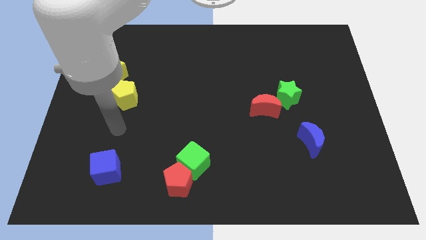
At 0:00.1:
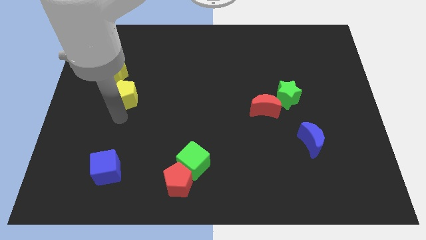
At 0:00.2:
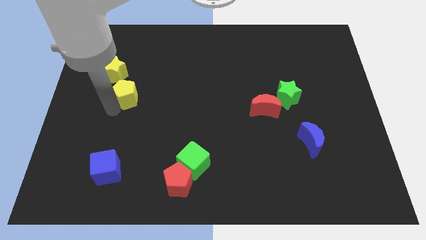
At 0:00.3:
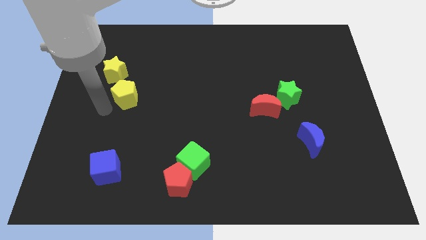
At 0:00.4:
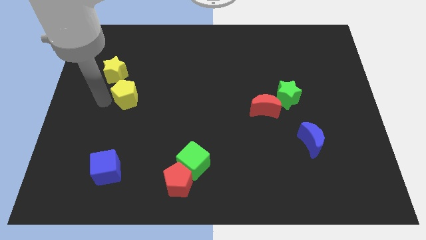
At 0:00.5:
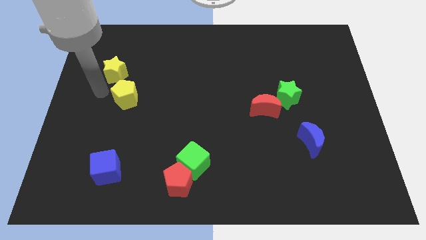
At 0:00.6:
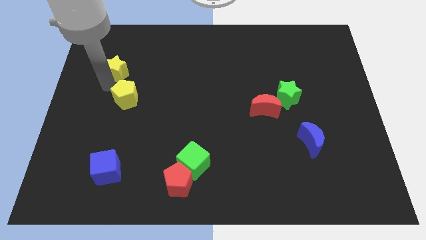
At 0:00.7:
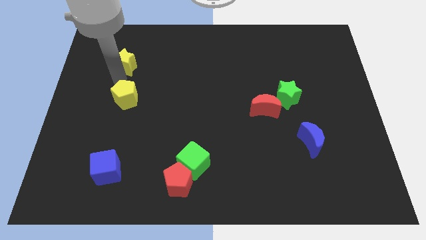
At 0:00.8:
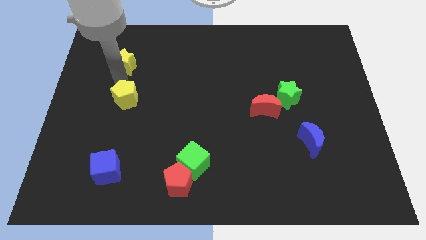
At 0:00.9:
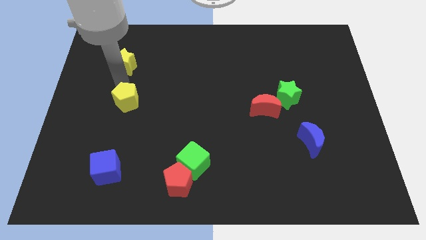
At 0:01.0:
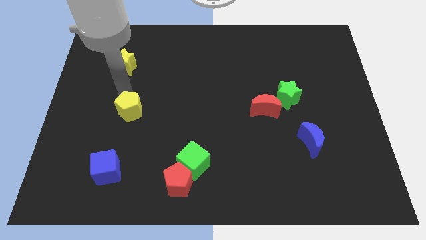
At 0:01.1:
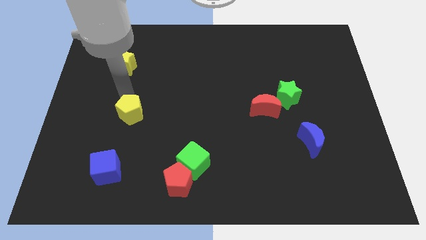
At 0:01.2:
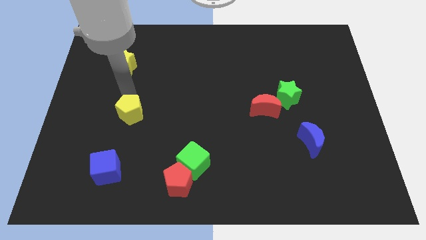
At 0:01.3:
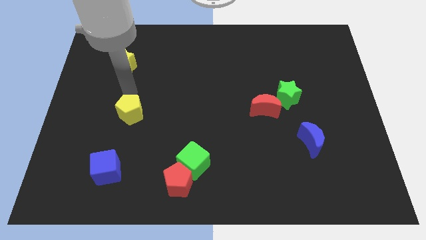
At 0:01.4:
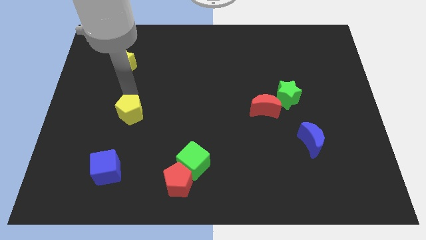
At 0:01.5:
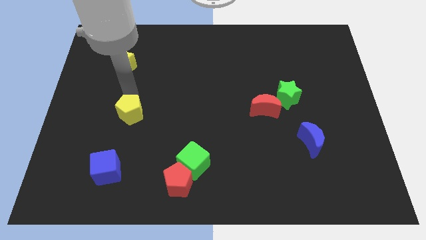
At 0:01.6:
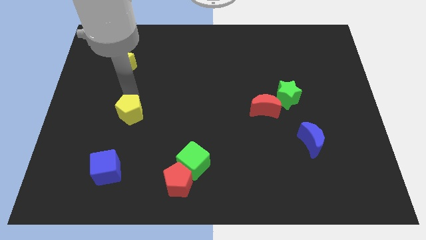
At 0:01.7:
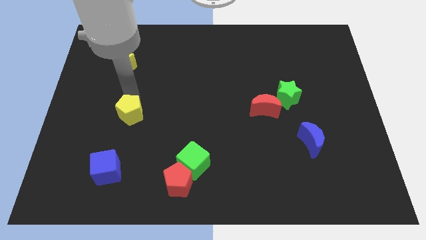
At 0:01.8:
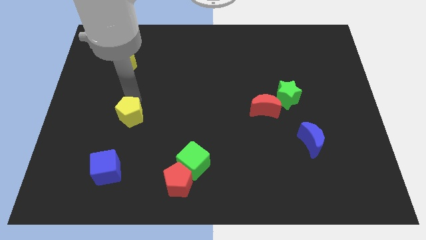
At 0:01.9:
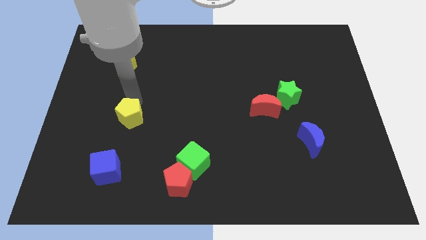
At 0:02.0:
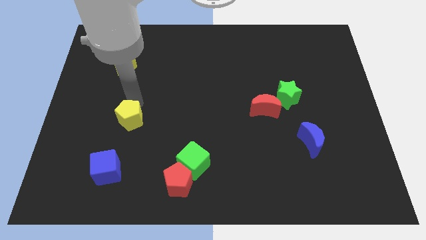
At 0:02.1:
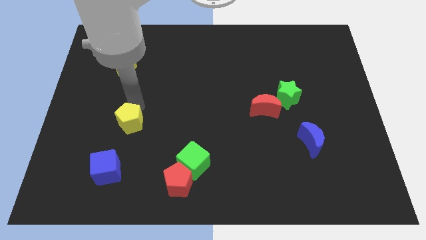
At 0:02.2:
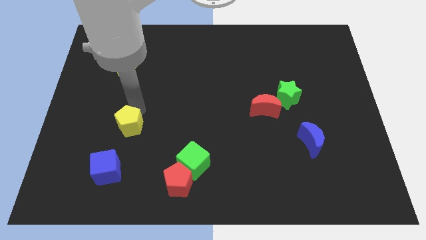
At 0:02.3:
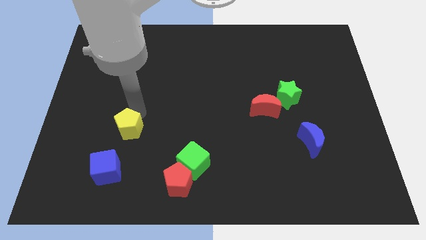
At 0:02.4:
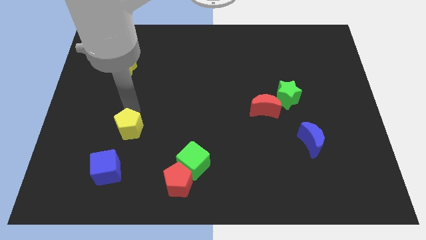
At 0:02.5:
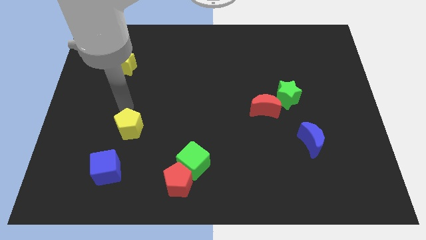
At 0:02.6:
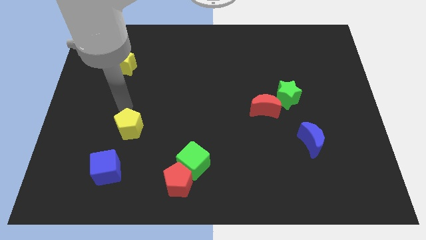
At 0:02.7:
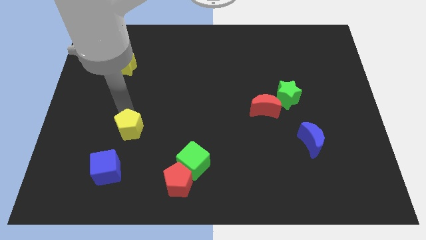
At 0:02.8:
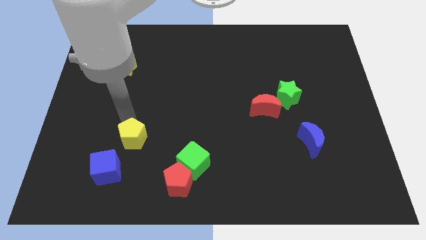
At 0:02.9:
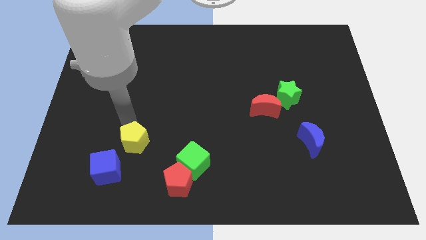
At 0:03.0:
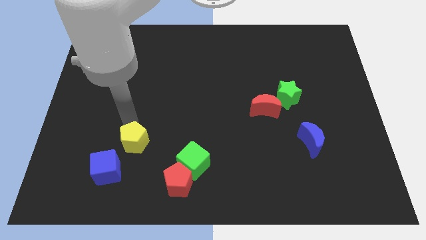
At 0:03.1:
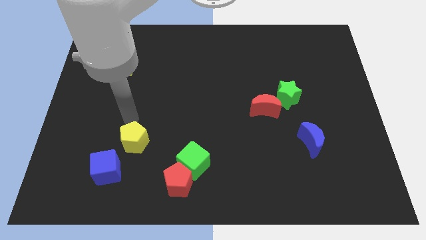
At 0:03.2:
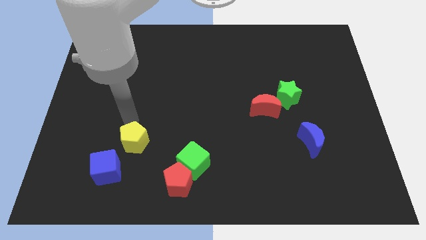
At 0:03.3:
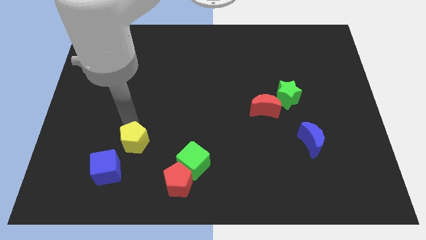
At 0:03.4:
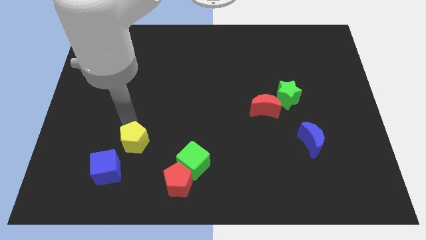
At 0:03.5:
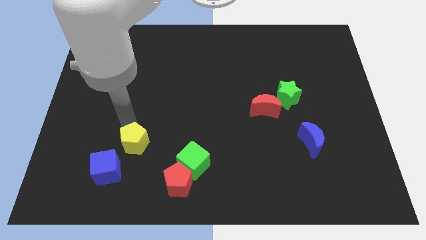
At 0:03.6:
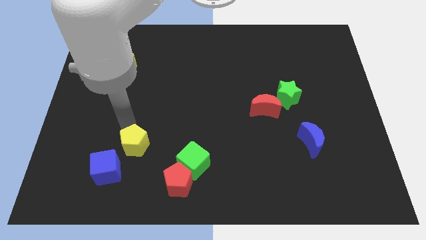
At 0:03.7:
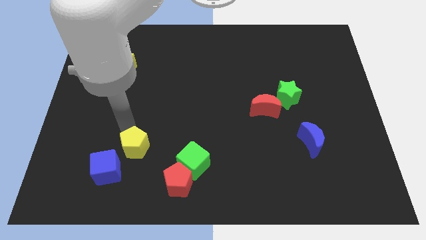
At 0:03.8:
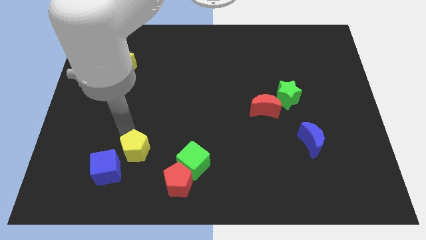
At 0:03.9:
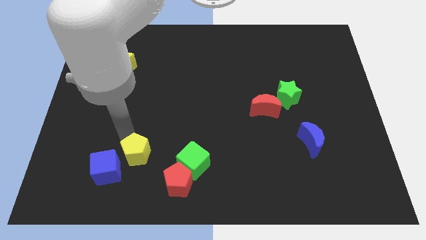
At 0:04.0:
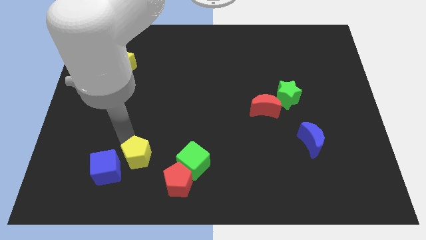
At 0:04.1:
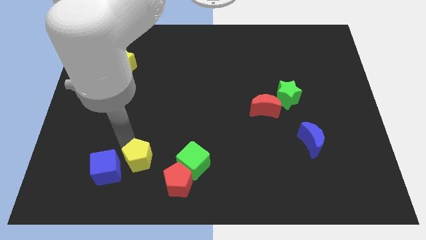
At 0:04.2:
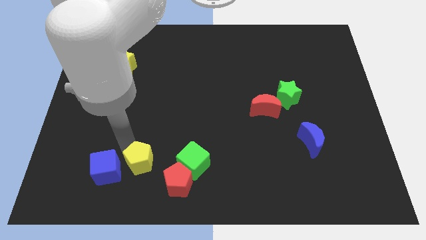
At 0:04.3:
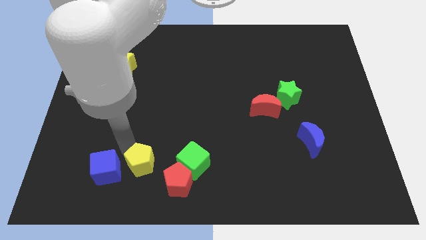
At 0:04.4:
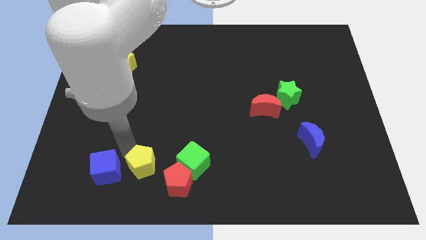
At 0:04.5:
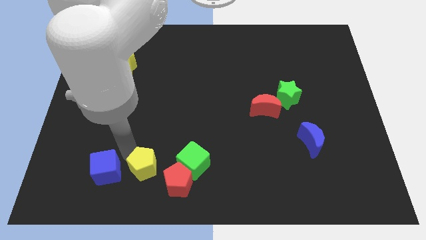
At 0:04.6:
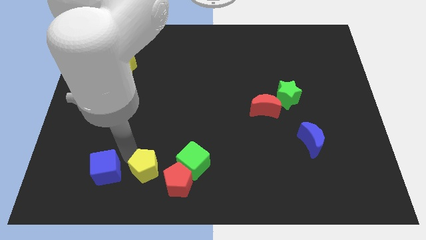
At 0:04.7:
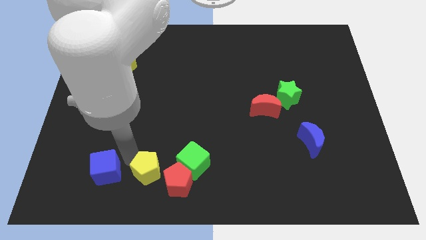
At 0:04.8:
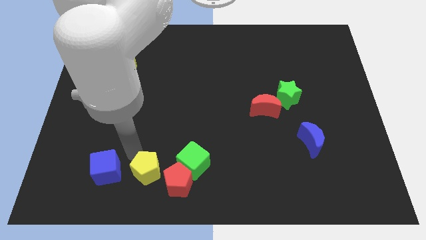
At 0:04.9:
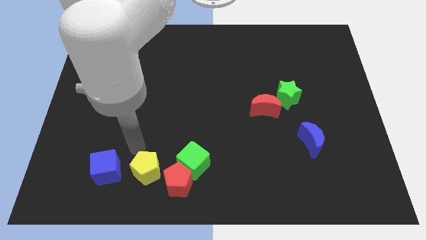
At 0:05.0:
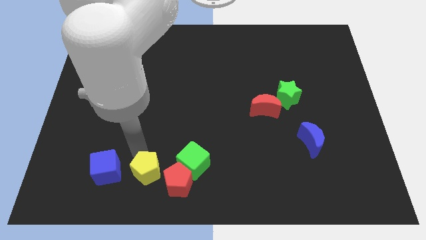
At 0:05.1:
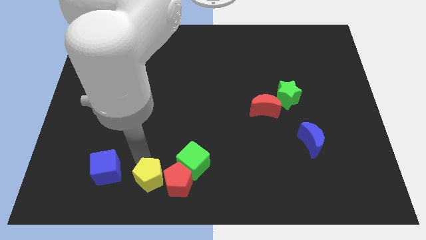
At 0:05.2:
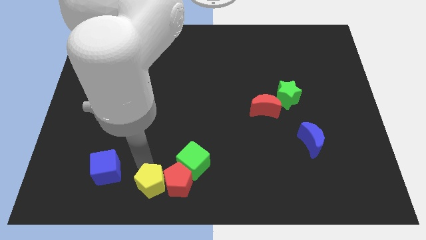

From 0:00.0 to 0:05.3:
move the yellow pentagon to the bottom

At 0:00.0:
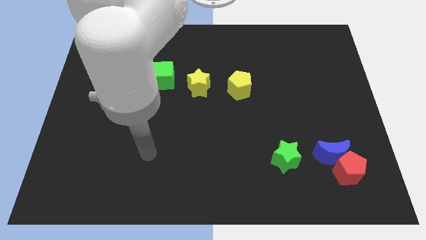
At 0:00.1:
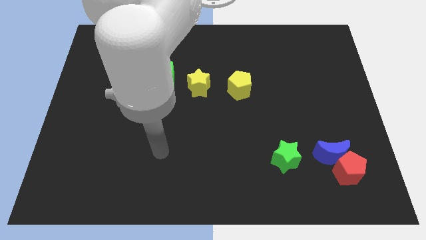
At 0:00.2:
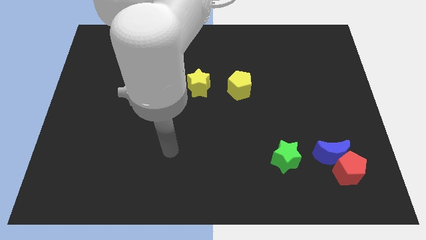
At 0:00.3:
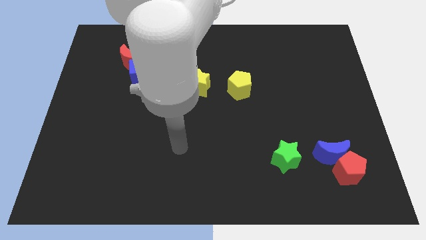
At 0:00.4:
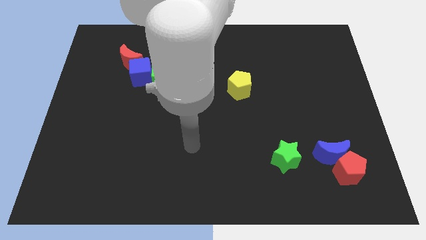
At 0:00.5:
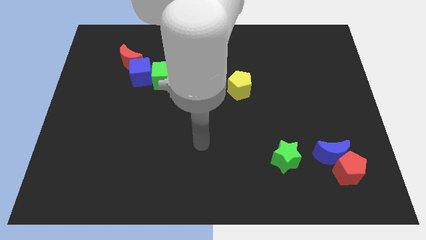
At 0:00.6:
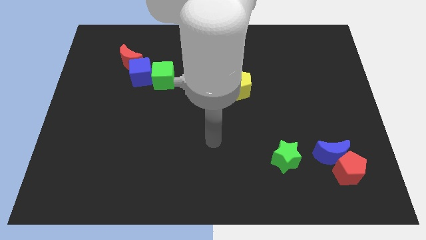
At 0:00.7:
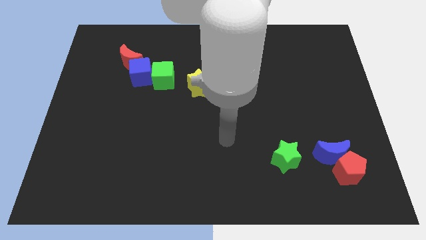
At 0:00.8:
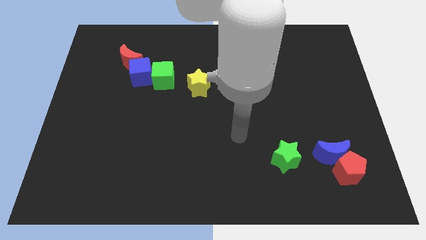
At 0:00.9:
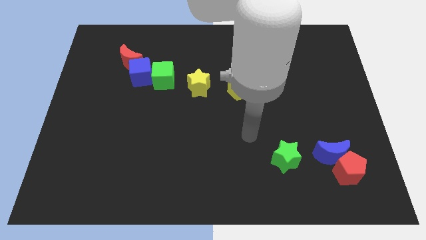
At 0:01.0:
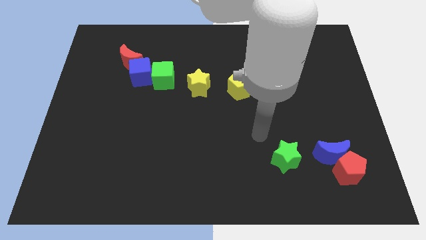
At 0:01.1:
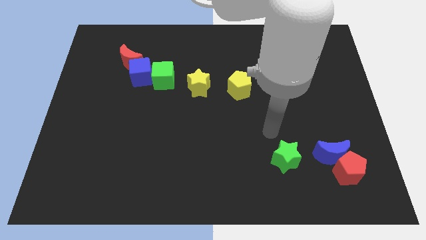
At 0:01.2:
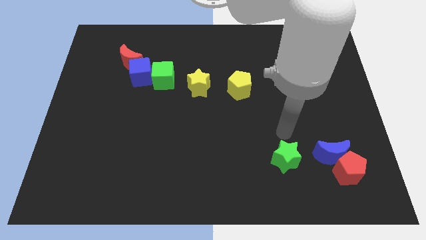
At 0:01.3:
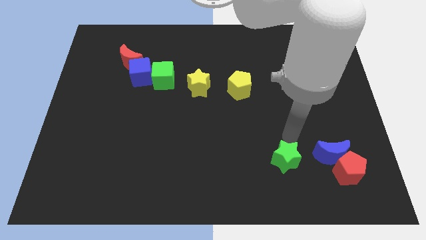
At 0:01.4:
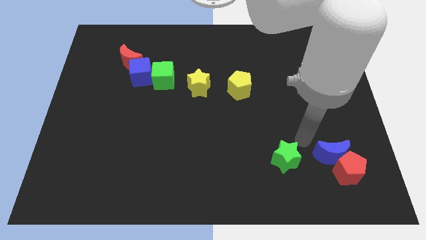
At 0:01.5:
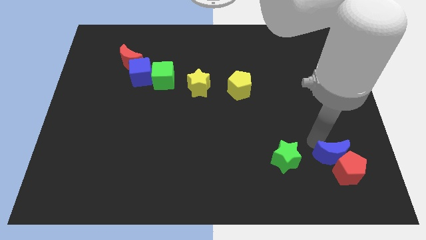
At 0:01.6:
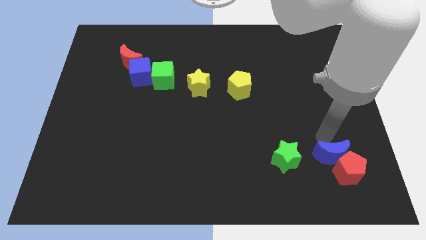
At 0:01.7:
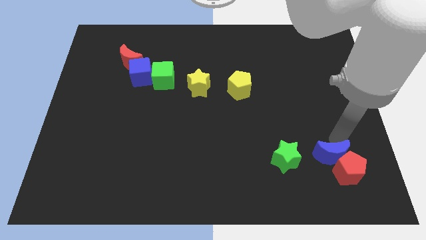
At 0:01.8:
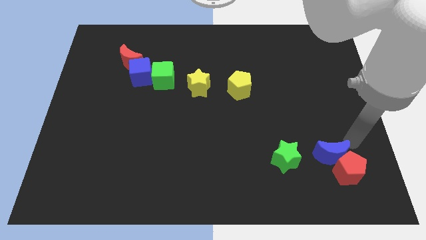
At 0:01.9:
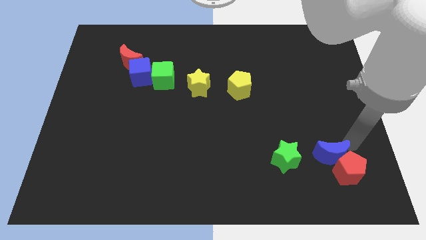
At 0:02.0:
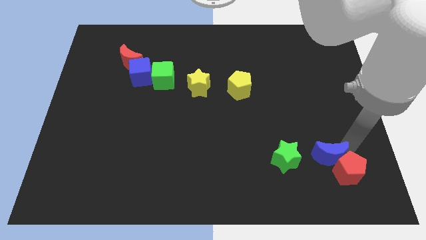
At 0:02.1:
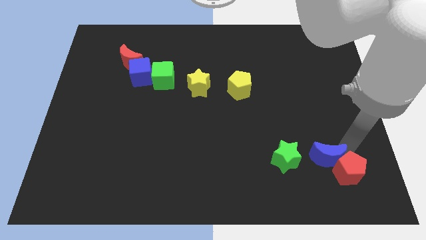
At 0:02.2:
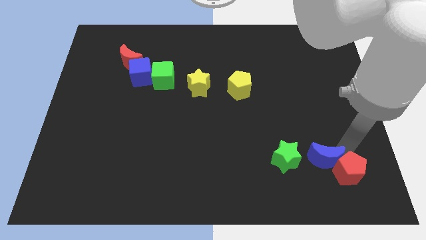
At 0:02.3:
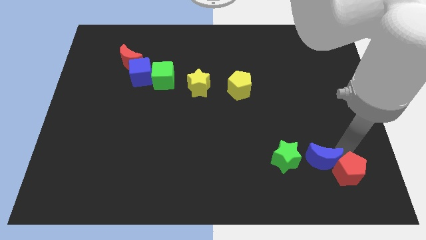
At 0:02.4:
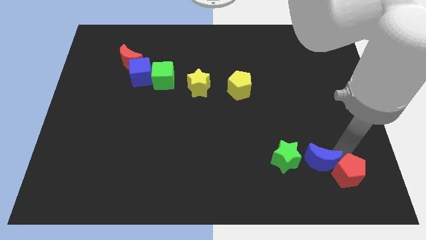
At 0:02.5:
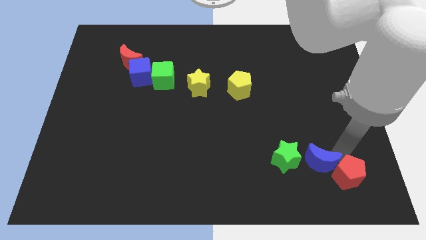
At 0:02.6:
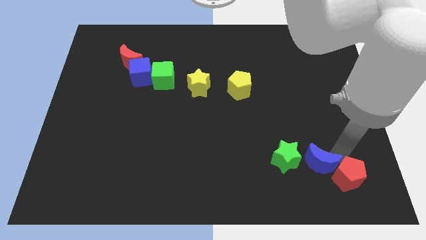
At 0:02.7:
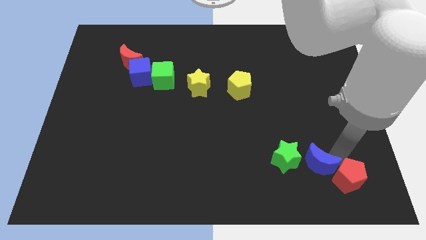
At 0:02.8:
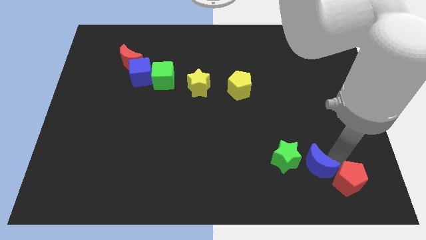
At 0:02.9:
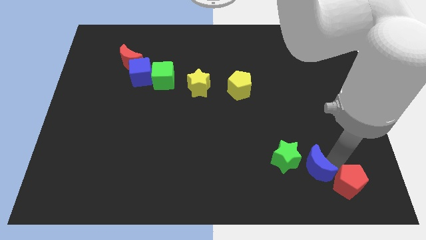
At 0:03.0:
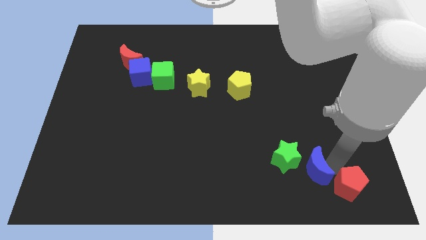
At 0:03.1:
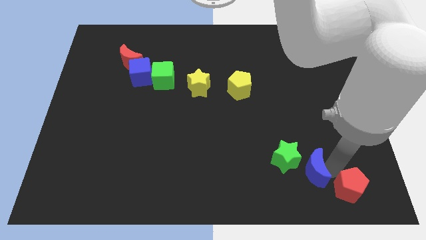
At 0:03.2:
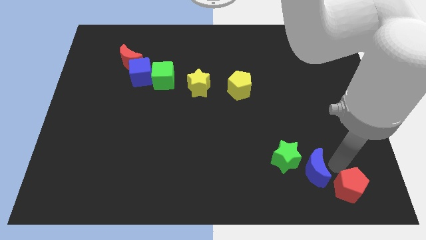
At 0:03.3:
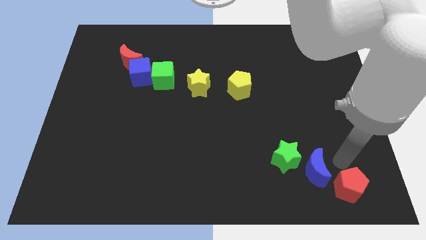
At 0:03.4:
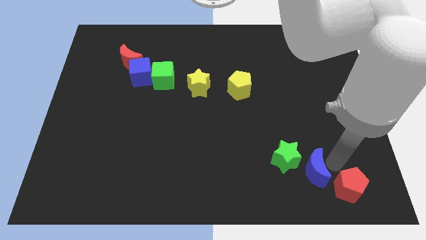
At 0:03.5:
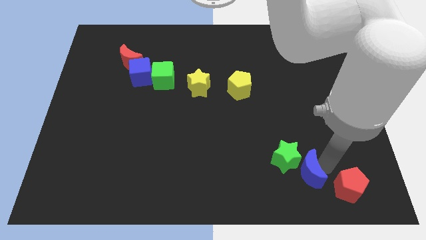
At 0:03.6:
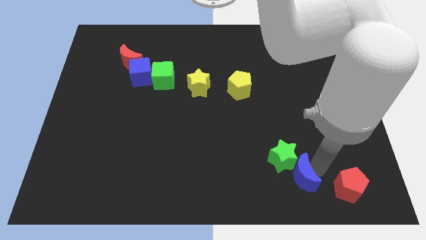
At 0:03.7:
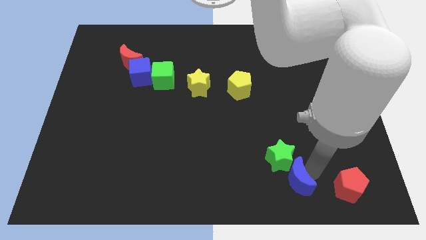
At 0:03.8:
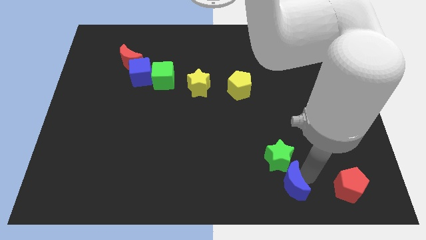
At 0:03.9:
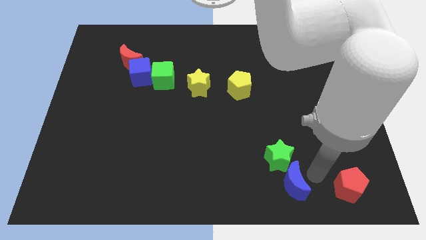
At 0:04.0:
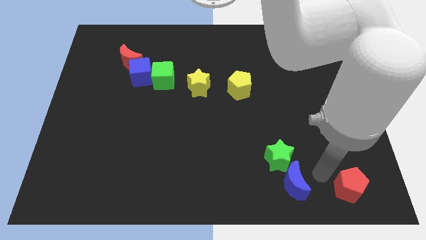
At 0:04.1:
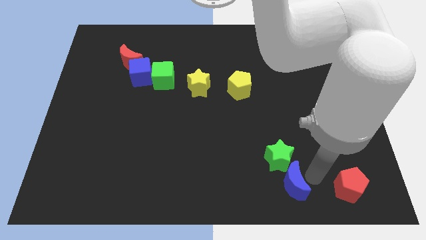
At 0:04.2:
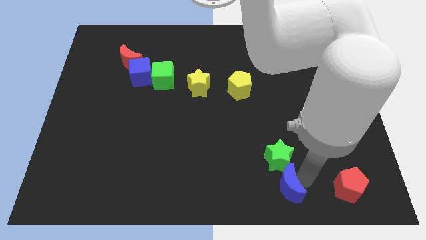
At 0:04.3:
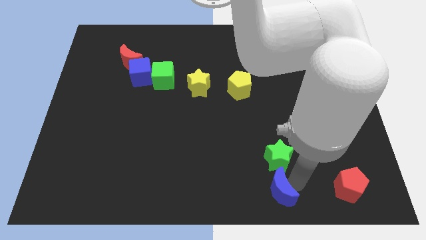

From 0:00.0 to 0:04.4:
slide the blue moon to the bottom side
